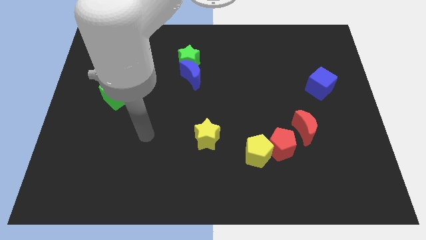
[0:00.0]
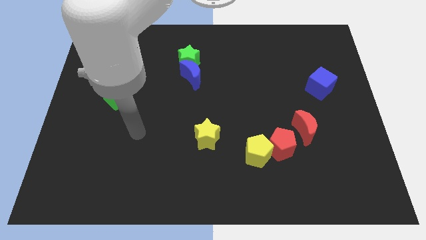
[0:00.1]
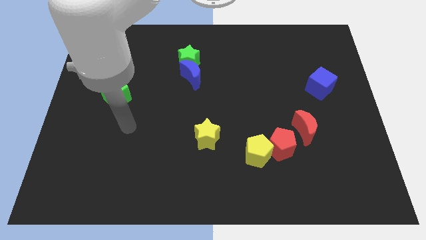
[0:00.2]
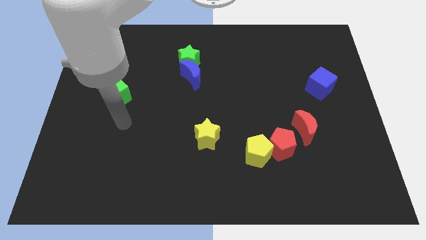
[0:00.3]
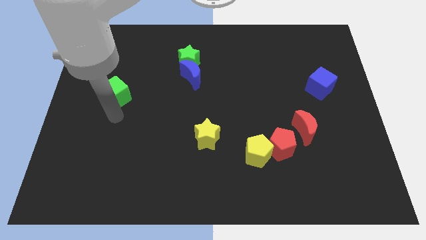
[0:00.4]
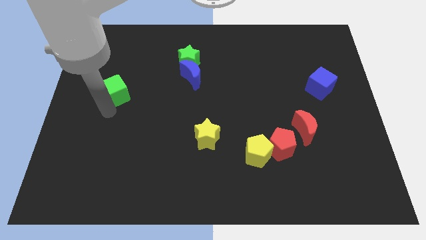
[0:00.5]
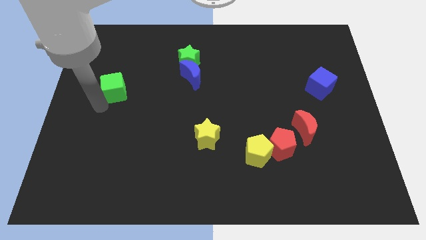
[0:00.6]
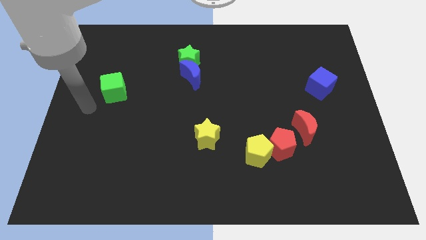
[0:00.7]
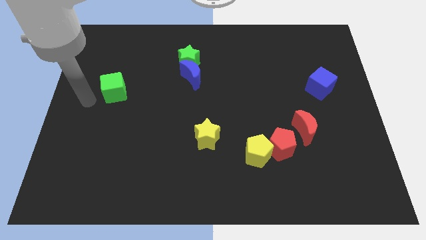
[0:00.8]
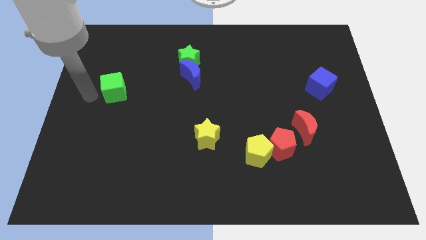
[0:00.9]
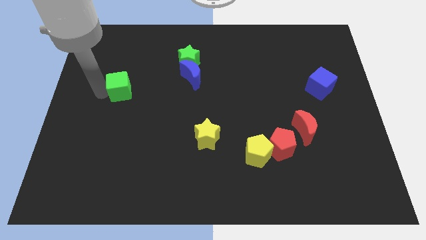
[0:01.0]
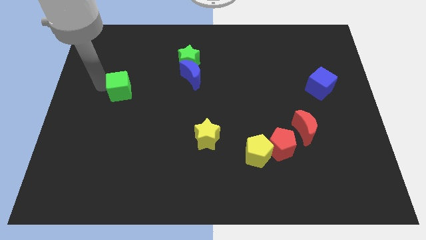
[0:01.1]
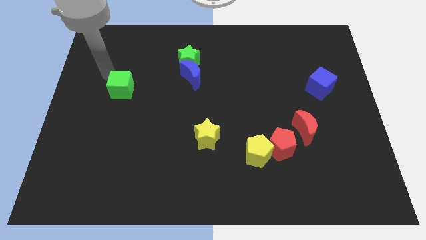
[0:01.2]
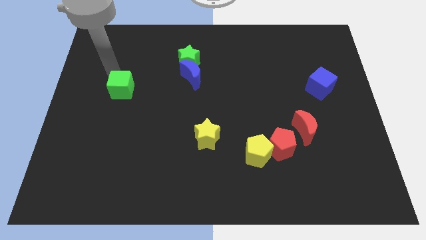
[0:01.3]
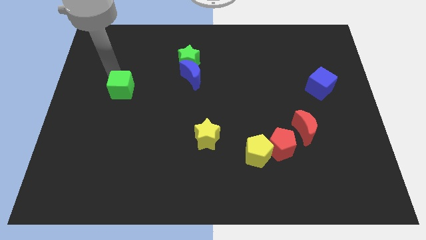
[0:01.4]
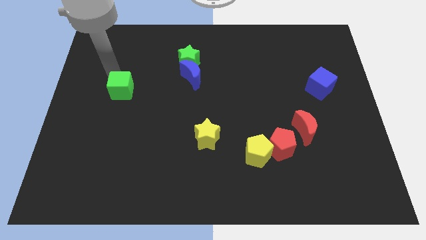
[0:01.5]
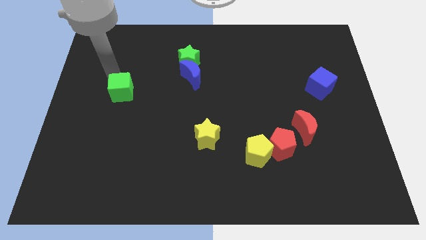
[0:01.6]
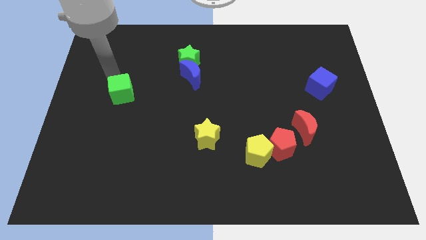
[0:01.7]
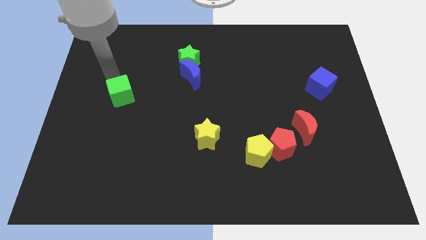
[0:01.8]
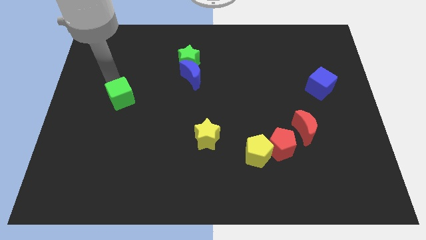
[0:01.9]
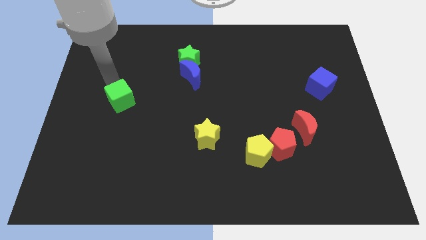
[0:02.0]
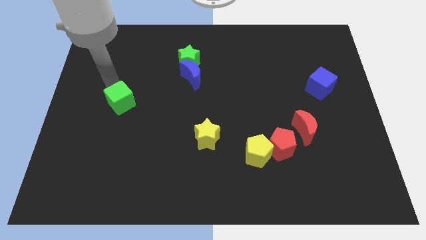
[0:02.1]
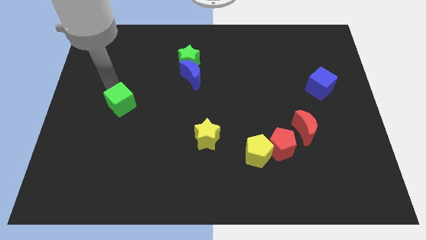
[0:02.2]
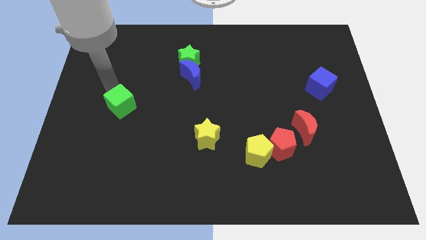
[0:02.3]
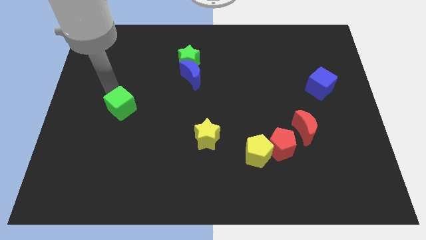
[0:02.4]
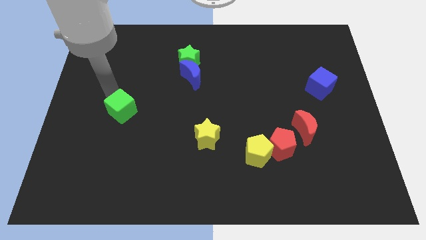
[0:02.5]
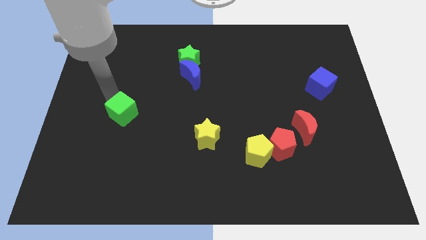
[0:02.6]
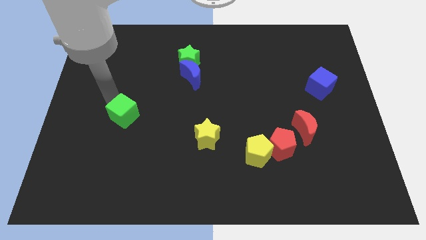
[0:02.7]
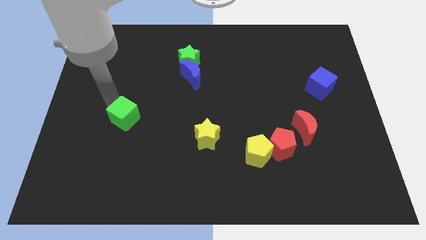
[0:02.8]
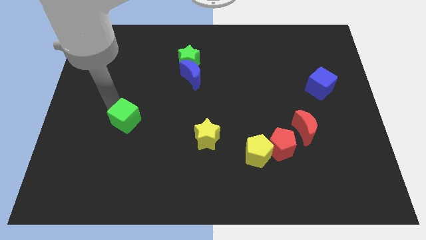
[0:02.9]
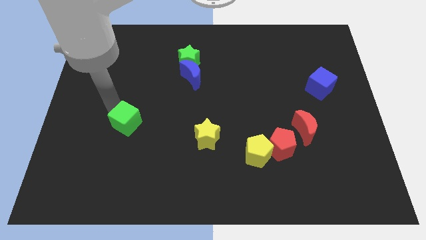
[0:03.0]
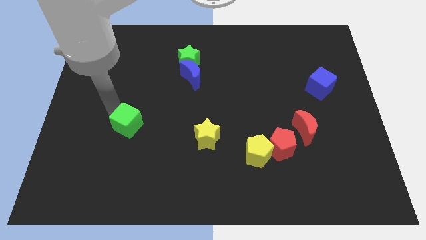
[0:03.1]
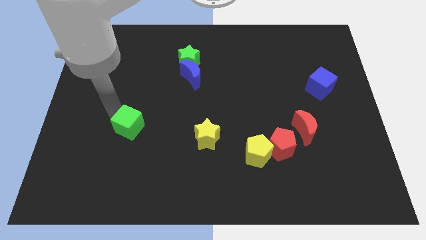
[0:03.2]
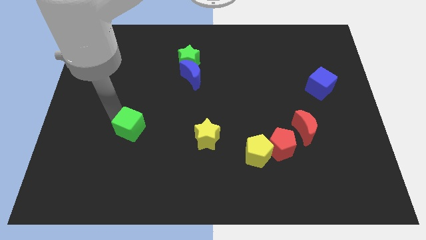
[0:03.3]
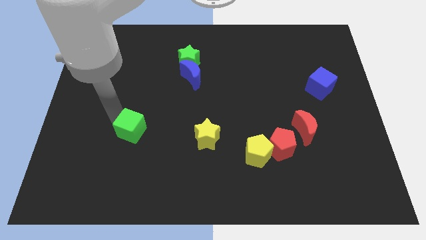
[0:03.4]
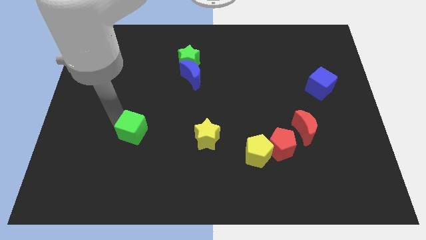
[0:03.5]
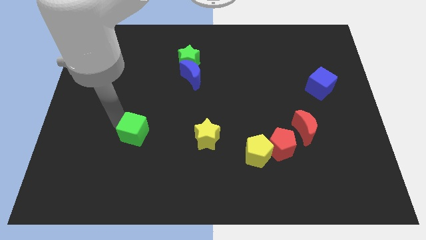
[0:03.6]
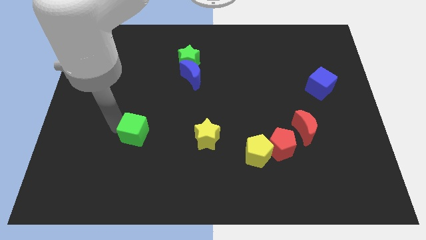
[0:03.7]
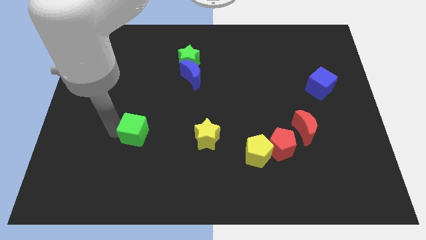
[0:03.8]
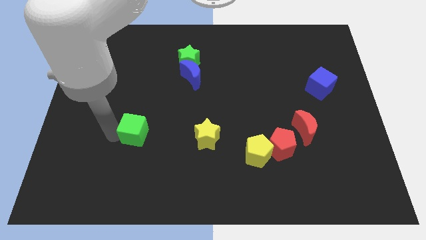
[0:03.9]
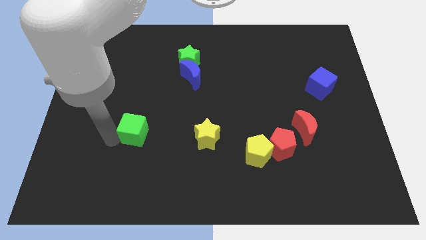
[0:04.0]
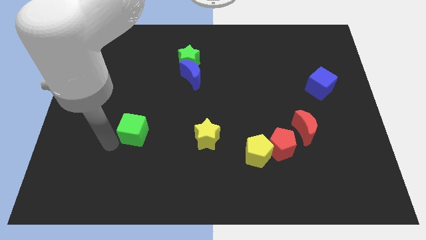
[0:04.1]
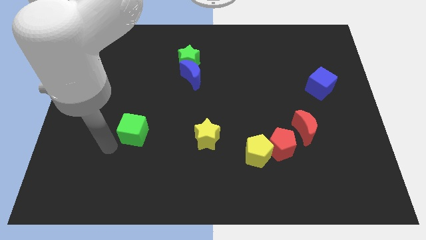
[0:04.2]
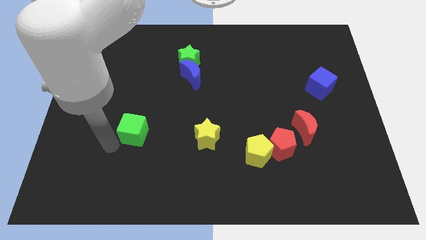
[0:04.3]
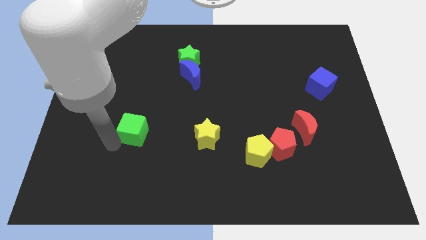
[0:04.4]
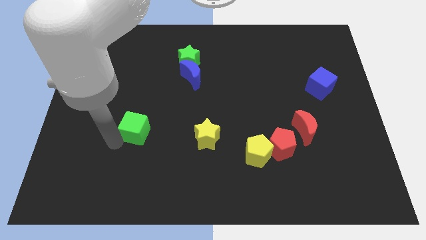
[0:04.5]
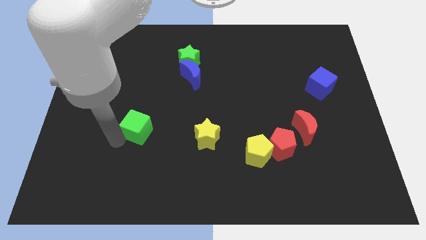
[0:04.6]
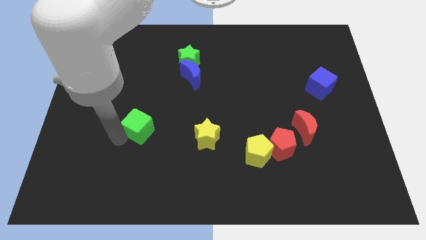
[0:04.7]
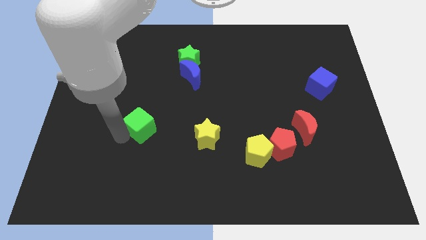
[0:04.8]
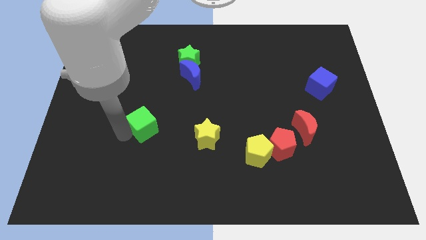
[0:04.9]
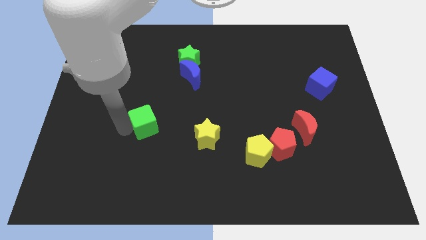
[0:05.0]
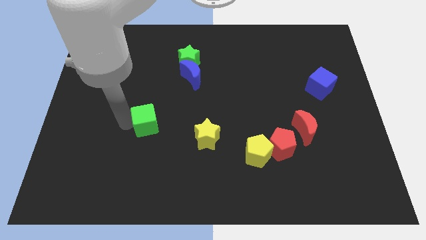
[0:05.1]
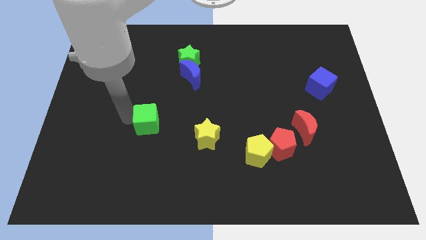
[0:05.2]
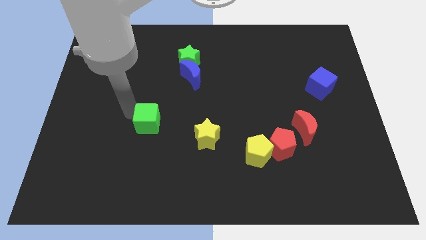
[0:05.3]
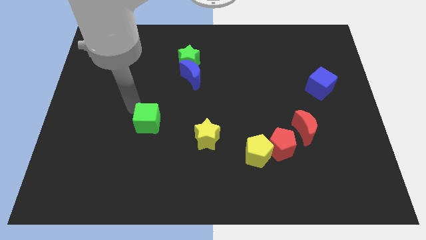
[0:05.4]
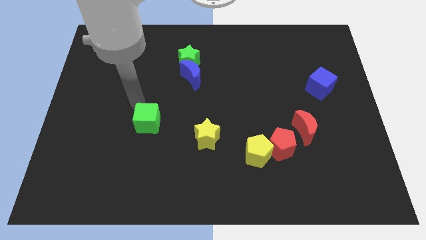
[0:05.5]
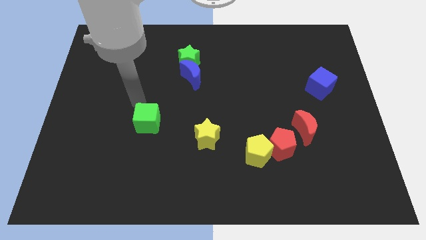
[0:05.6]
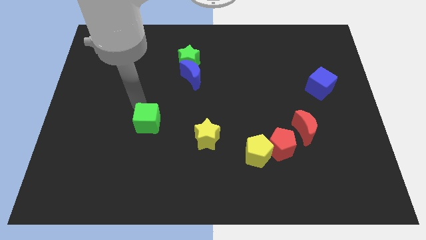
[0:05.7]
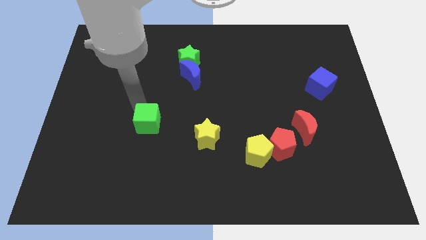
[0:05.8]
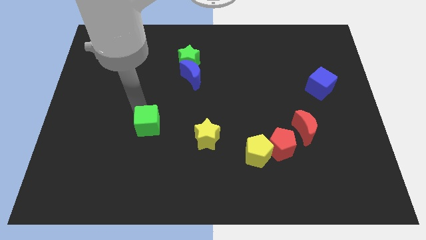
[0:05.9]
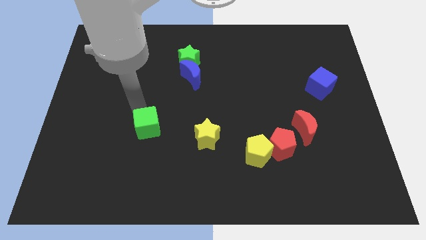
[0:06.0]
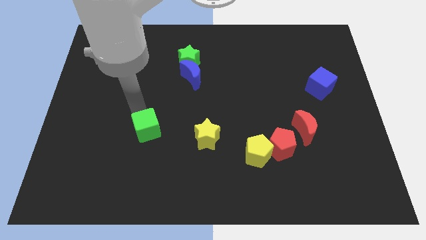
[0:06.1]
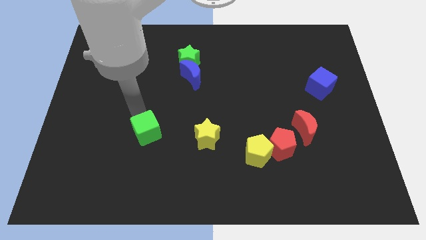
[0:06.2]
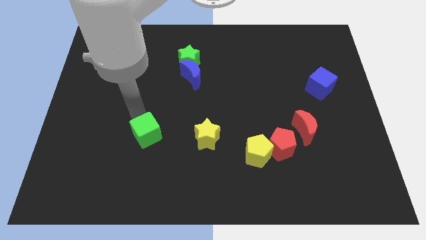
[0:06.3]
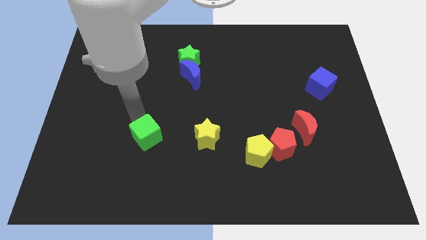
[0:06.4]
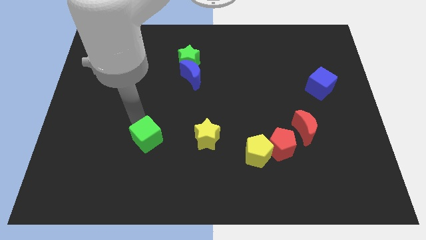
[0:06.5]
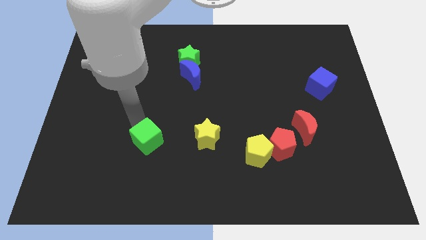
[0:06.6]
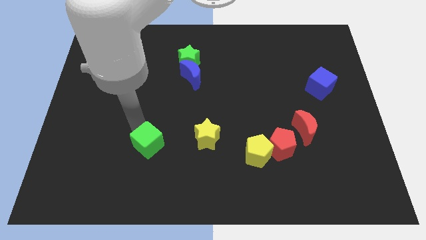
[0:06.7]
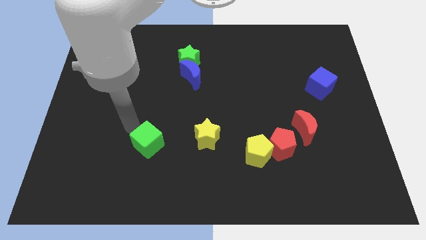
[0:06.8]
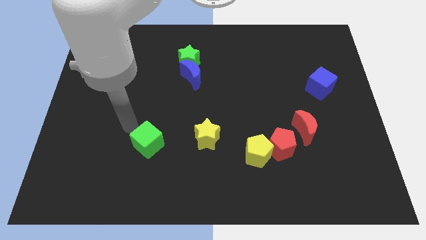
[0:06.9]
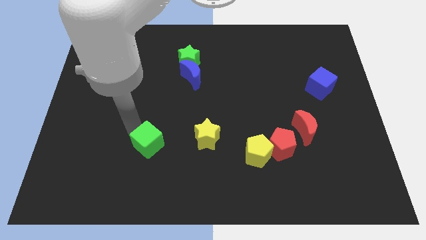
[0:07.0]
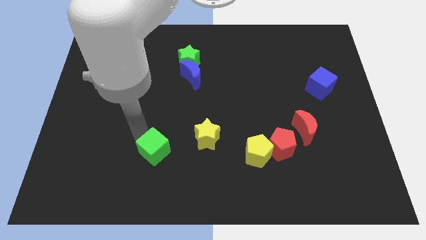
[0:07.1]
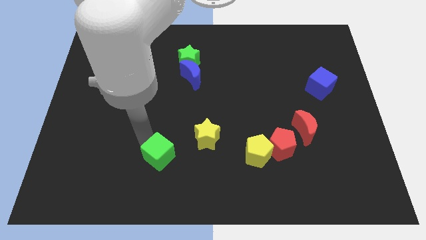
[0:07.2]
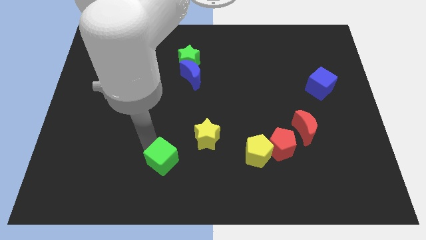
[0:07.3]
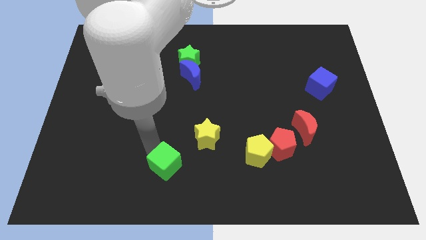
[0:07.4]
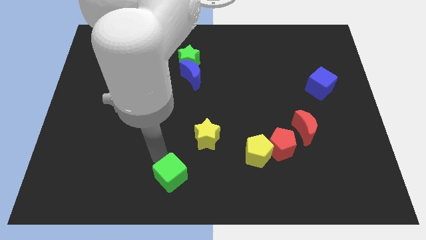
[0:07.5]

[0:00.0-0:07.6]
move the green cube to the bottom side
